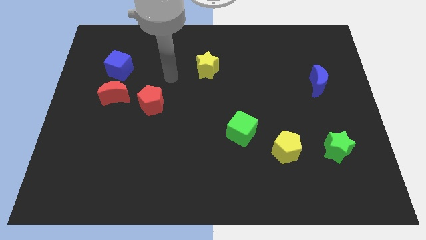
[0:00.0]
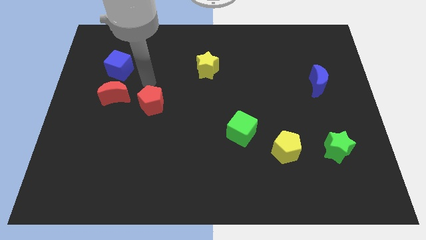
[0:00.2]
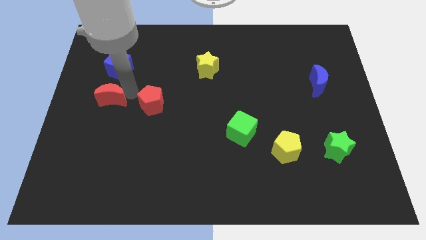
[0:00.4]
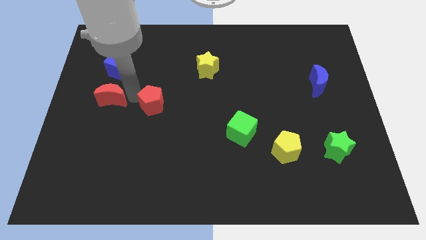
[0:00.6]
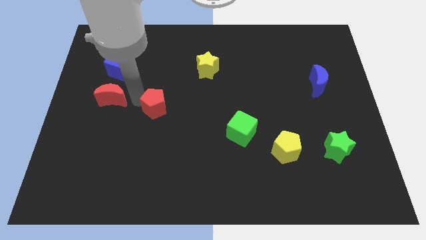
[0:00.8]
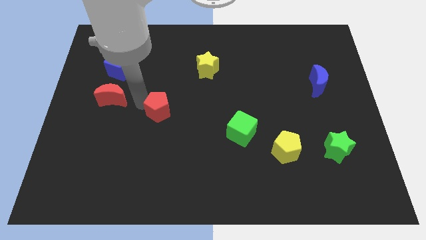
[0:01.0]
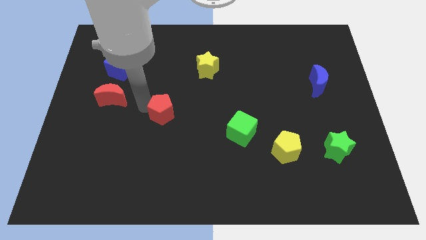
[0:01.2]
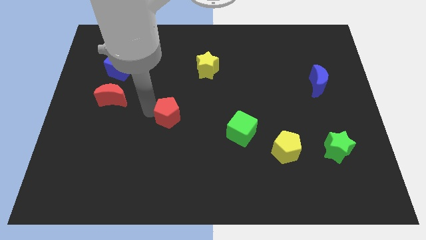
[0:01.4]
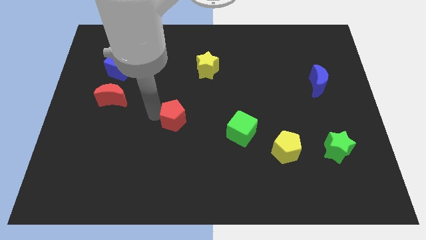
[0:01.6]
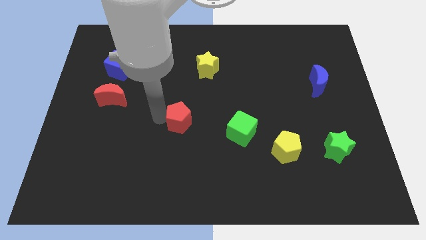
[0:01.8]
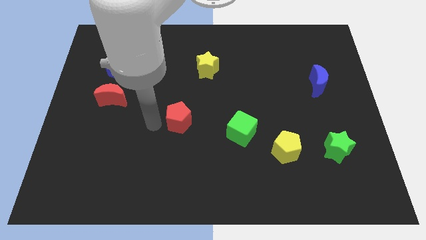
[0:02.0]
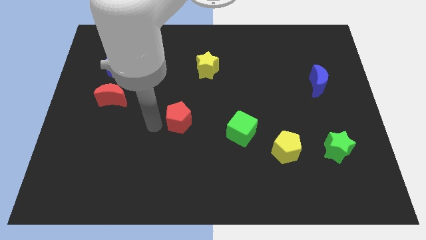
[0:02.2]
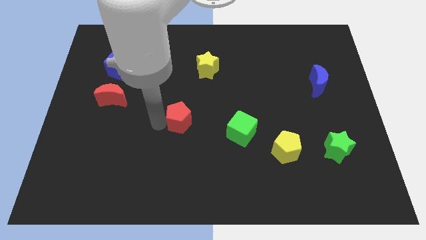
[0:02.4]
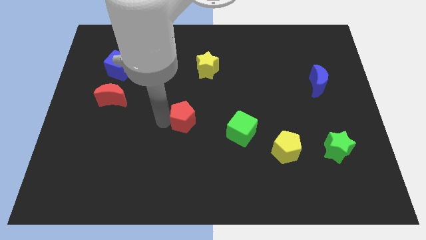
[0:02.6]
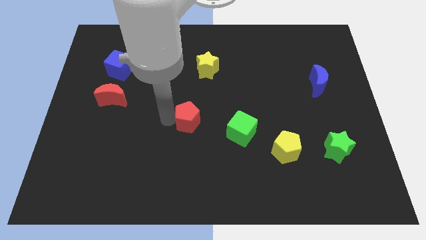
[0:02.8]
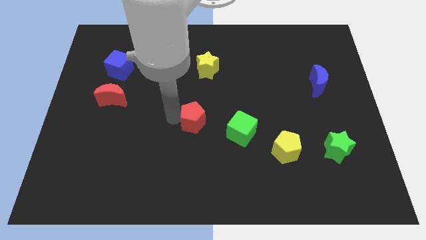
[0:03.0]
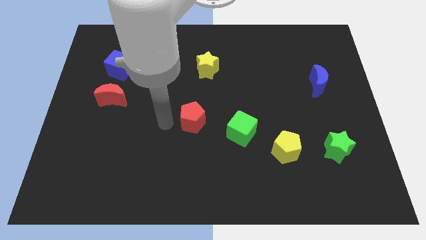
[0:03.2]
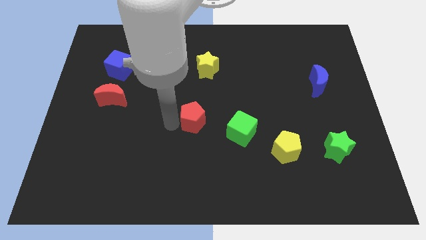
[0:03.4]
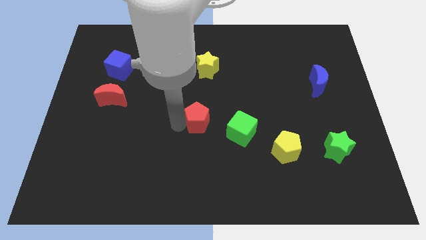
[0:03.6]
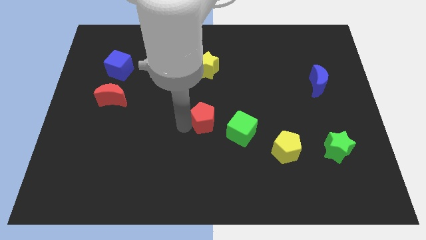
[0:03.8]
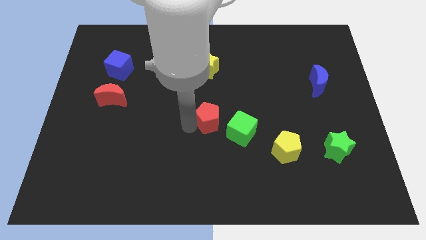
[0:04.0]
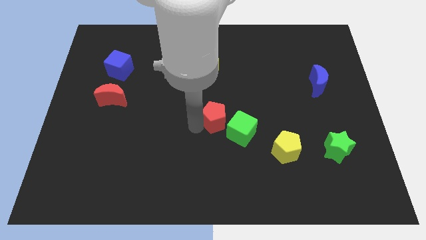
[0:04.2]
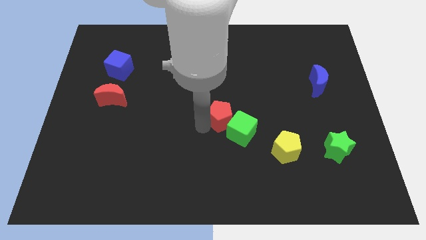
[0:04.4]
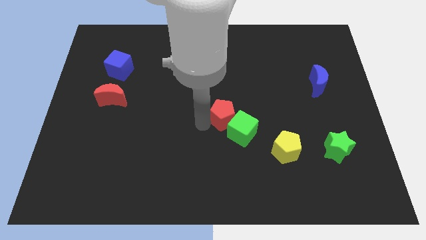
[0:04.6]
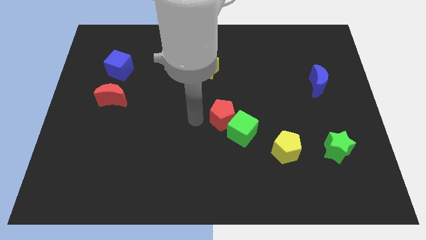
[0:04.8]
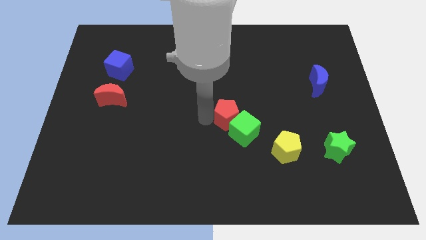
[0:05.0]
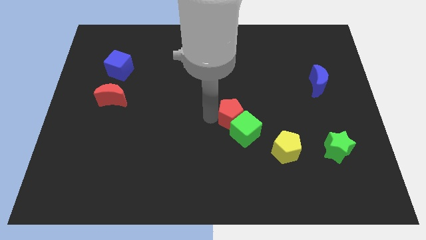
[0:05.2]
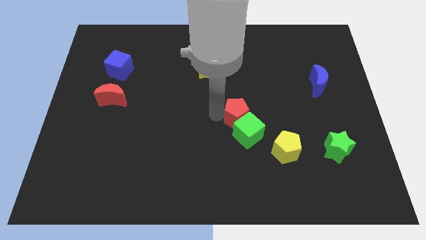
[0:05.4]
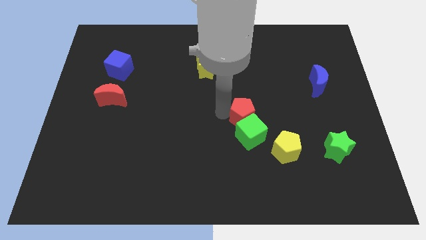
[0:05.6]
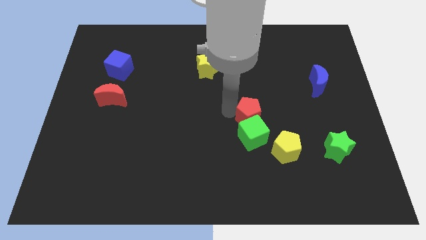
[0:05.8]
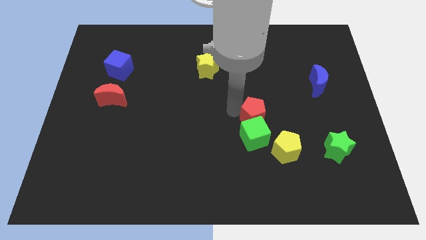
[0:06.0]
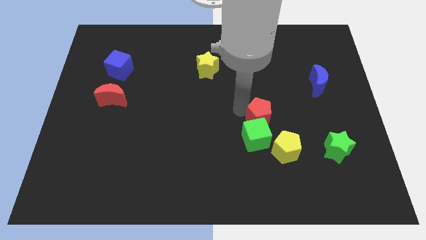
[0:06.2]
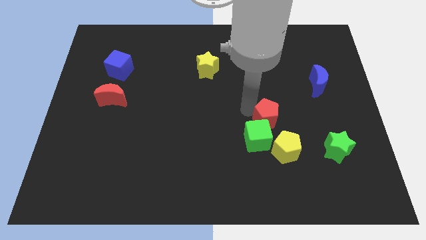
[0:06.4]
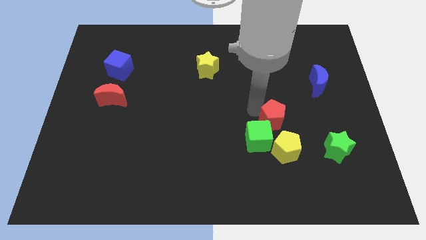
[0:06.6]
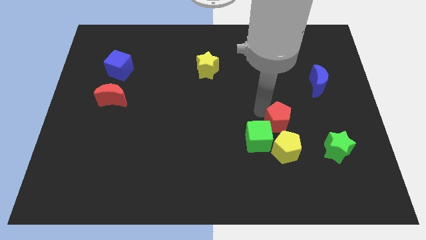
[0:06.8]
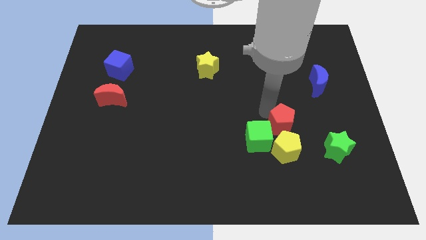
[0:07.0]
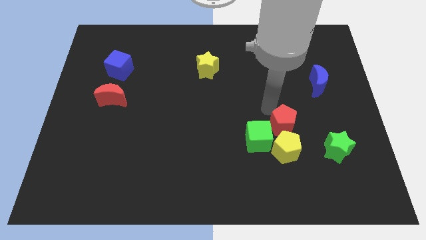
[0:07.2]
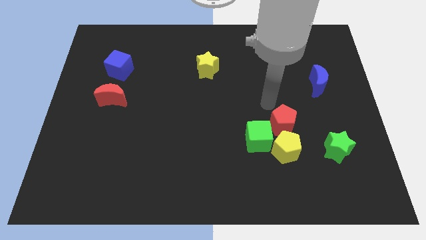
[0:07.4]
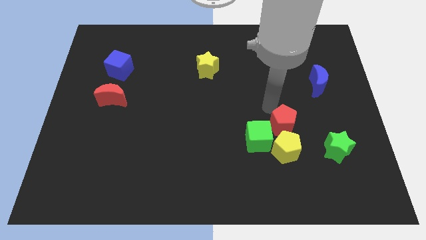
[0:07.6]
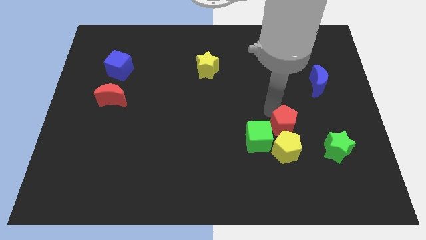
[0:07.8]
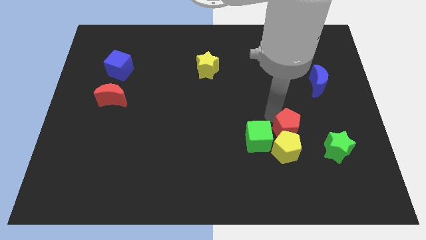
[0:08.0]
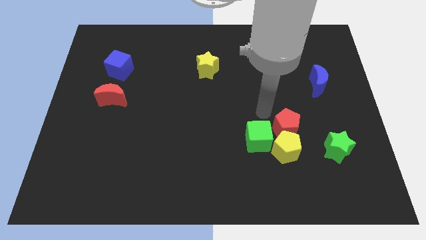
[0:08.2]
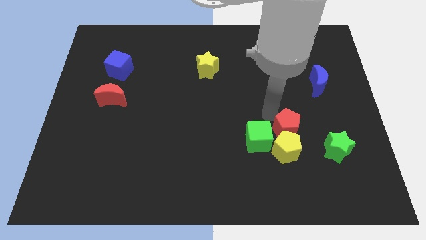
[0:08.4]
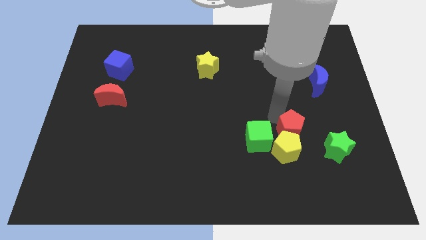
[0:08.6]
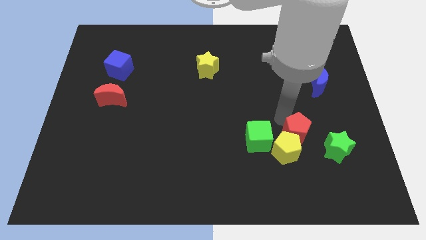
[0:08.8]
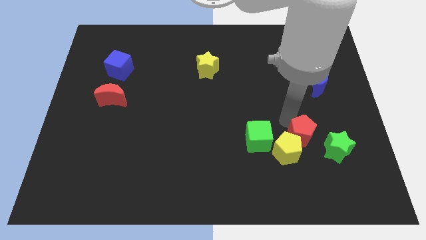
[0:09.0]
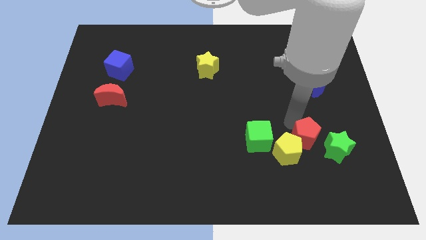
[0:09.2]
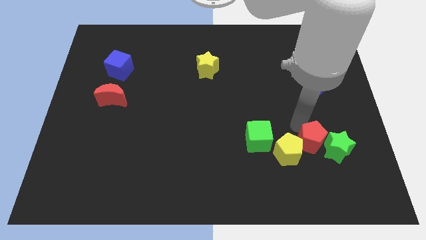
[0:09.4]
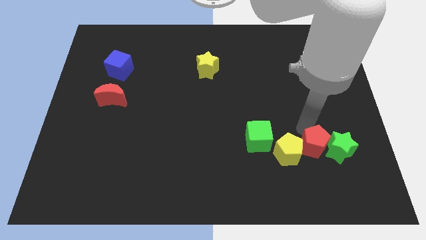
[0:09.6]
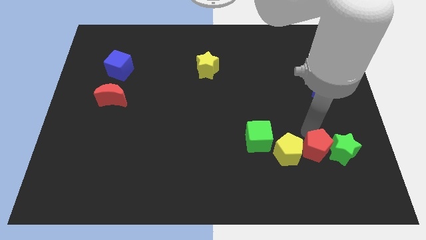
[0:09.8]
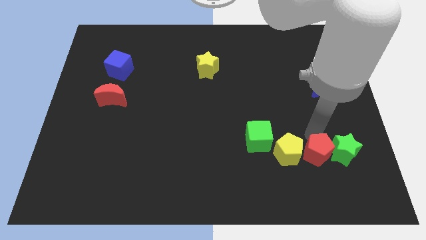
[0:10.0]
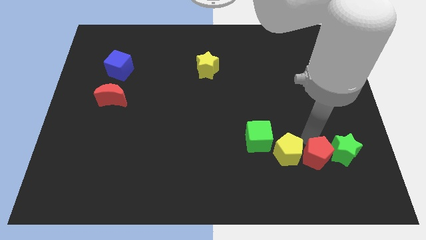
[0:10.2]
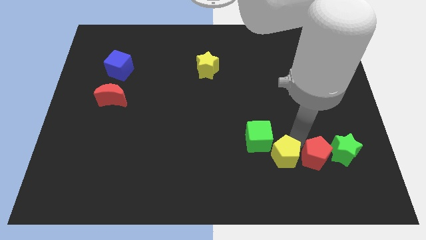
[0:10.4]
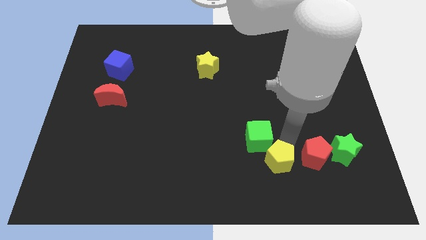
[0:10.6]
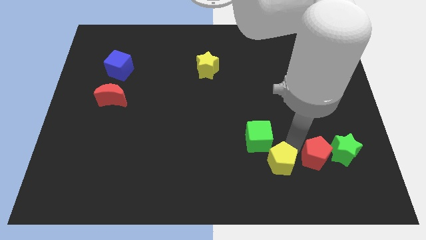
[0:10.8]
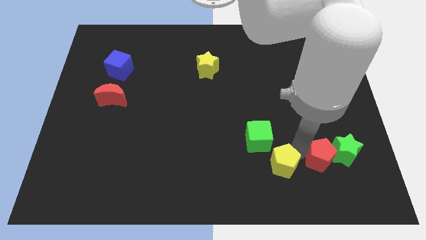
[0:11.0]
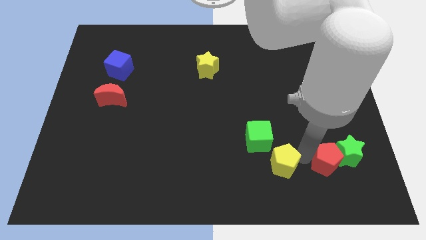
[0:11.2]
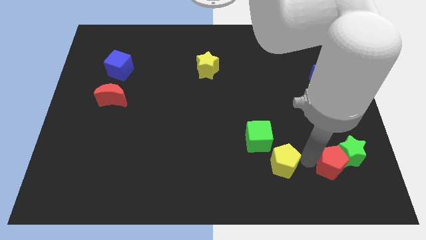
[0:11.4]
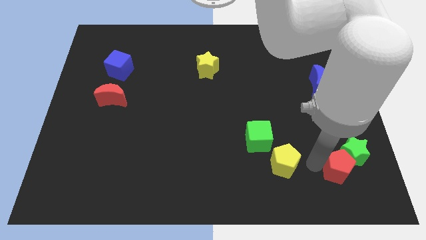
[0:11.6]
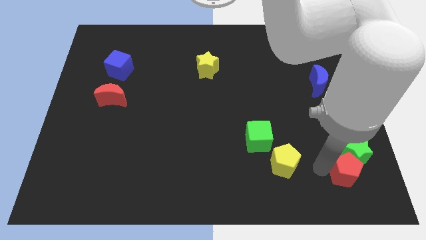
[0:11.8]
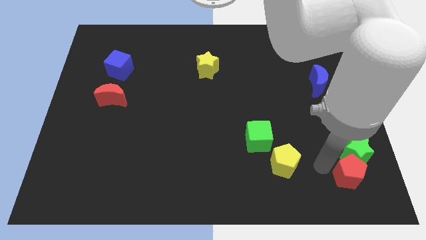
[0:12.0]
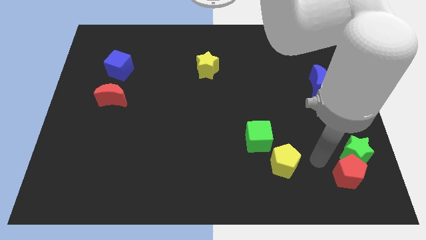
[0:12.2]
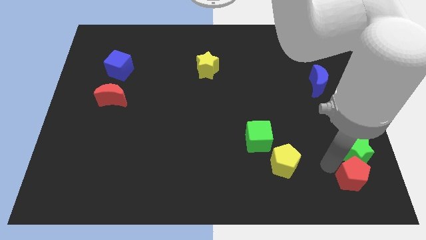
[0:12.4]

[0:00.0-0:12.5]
move the red pentagon to the bottom right

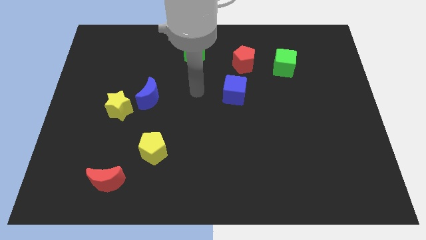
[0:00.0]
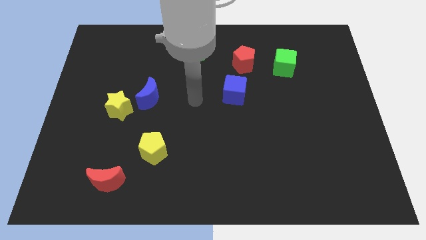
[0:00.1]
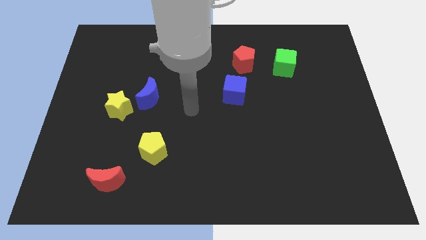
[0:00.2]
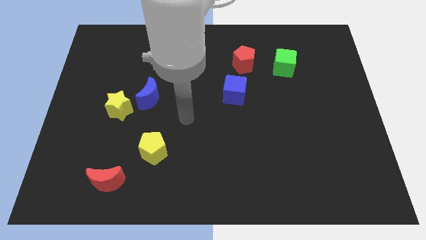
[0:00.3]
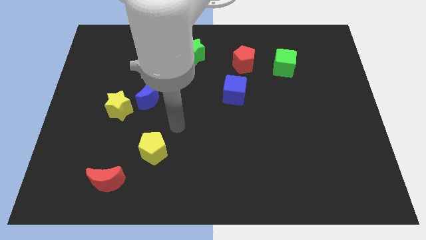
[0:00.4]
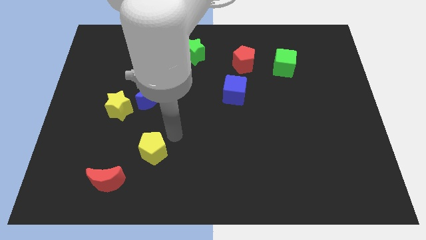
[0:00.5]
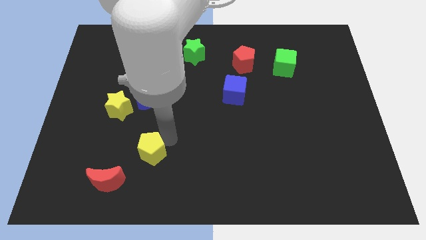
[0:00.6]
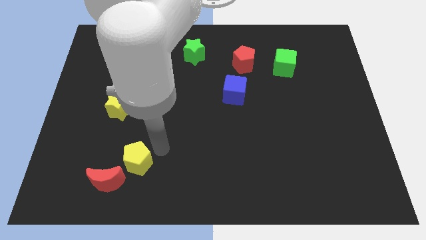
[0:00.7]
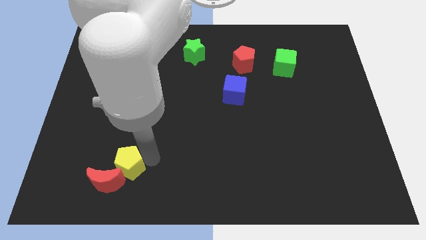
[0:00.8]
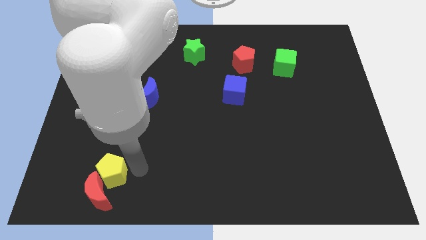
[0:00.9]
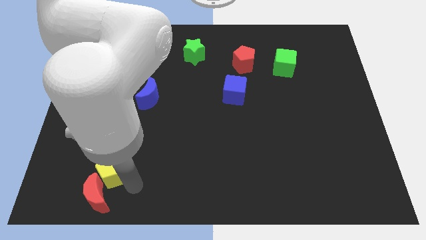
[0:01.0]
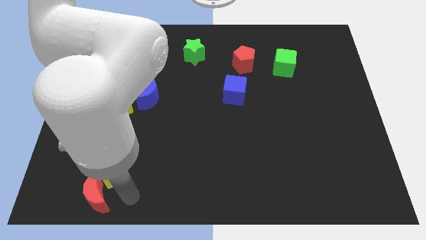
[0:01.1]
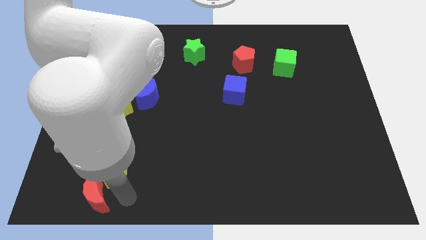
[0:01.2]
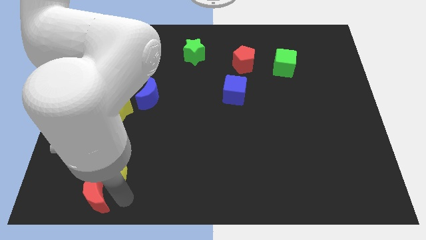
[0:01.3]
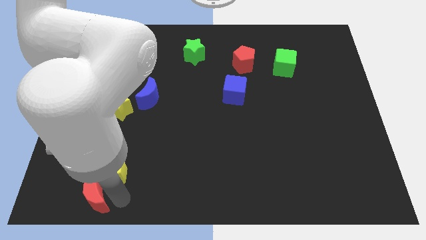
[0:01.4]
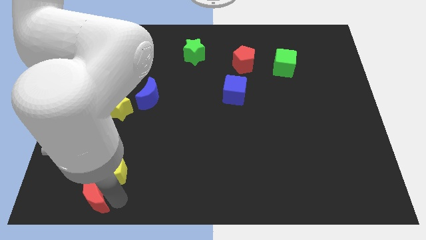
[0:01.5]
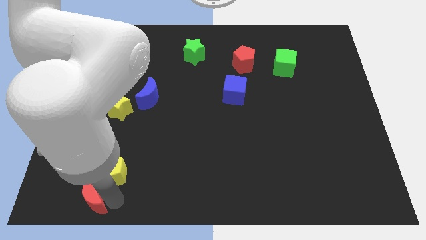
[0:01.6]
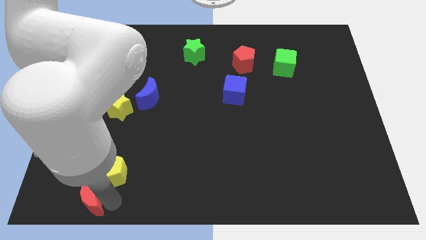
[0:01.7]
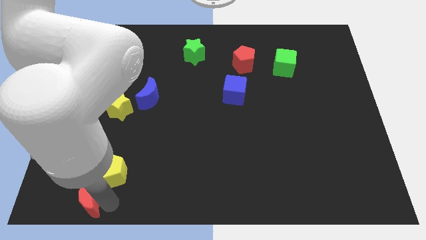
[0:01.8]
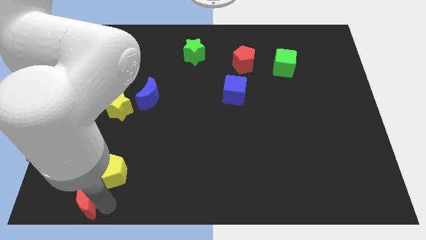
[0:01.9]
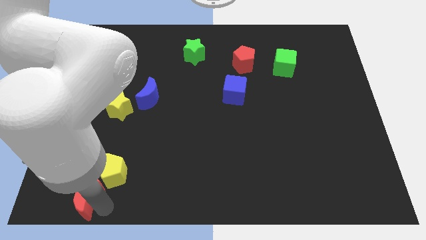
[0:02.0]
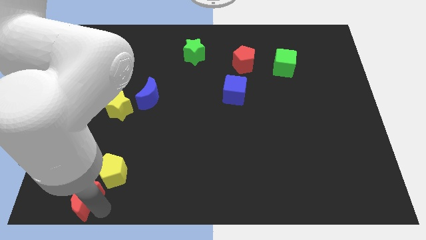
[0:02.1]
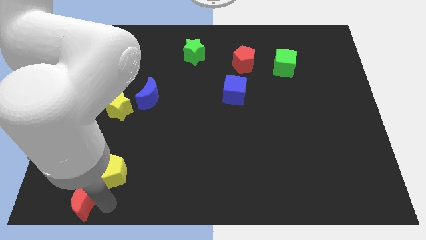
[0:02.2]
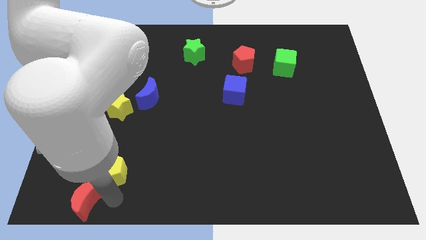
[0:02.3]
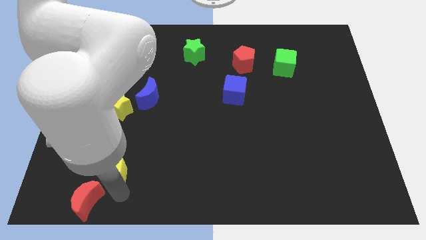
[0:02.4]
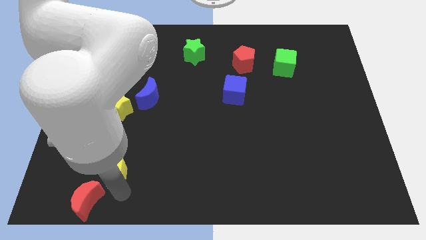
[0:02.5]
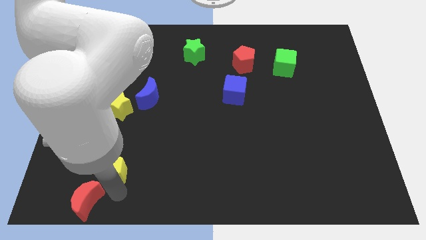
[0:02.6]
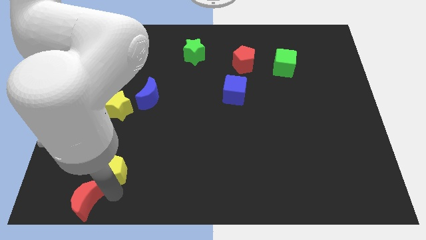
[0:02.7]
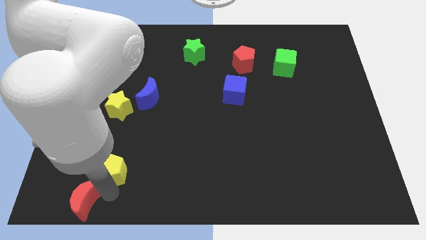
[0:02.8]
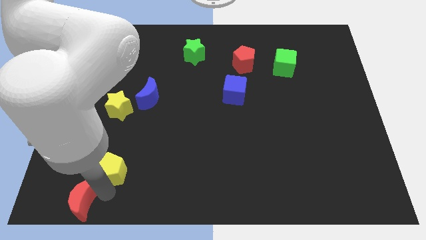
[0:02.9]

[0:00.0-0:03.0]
move the red moon to the lower left corner
